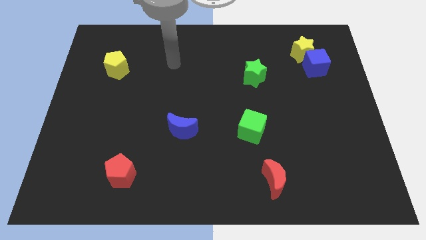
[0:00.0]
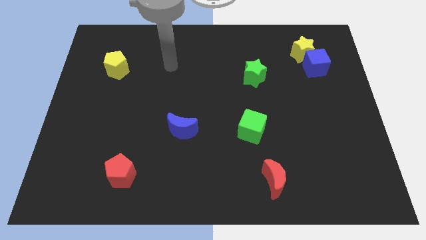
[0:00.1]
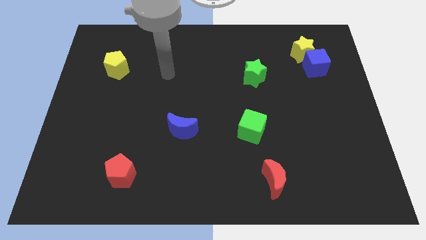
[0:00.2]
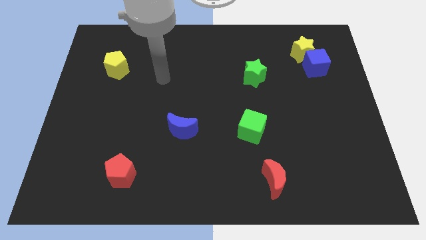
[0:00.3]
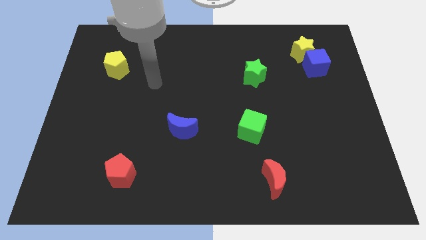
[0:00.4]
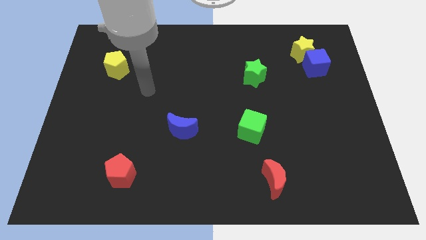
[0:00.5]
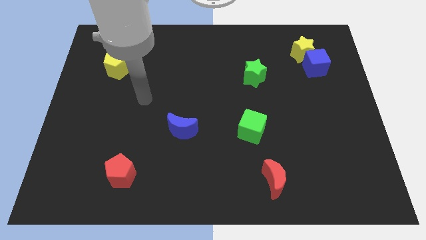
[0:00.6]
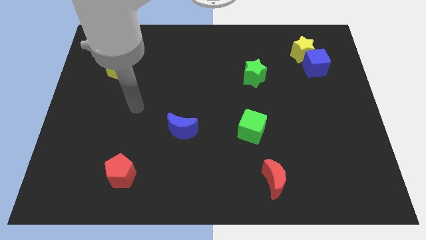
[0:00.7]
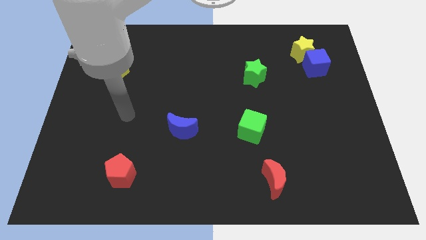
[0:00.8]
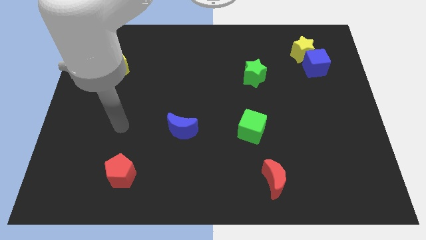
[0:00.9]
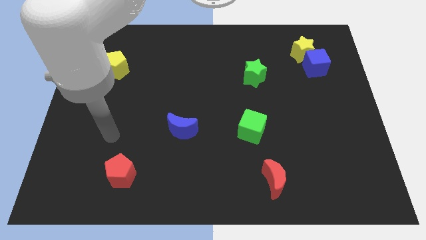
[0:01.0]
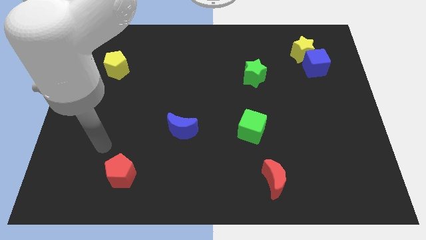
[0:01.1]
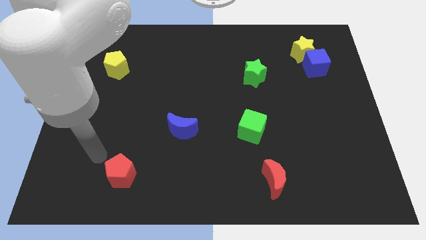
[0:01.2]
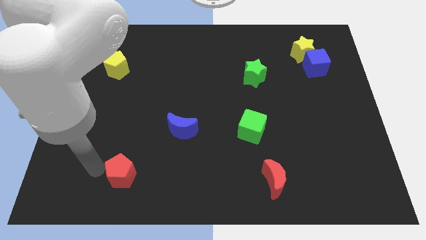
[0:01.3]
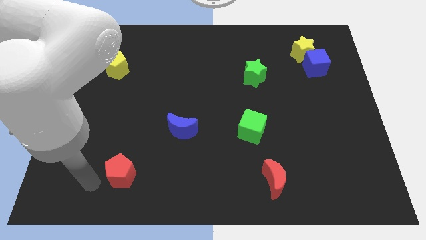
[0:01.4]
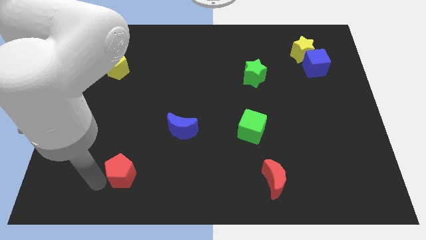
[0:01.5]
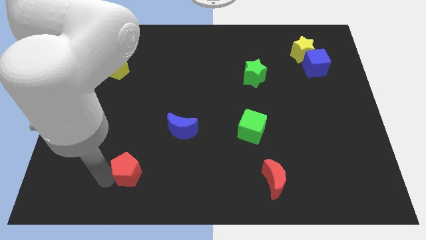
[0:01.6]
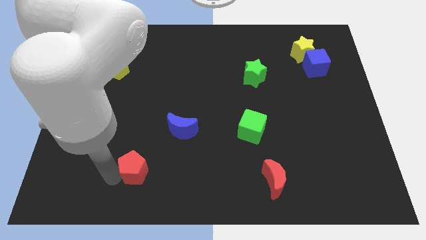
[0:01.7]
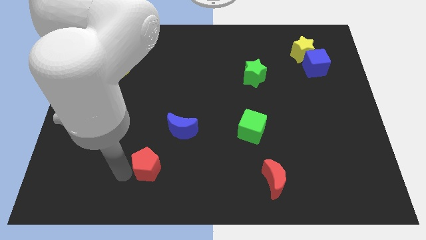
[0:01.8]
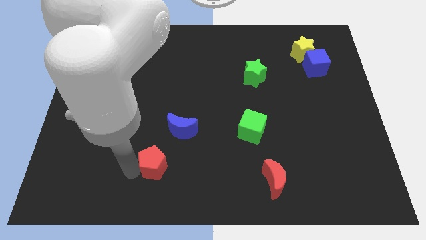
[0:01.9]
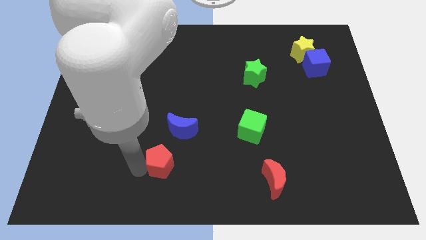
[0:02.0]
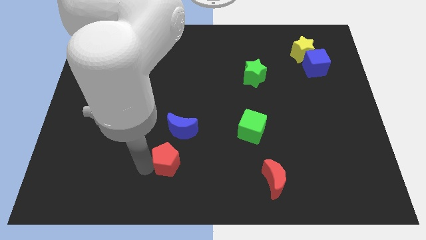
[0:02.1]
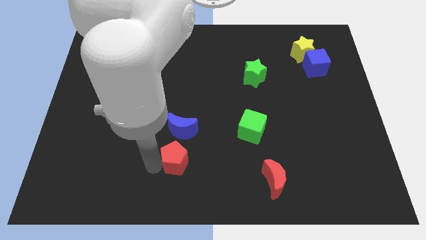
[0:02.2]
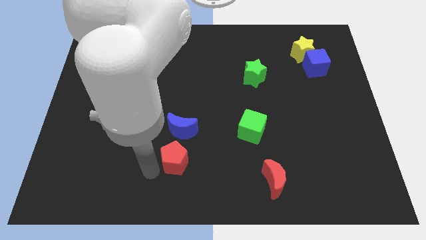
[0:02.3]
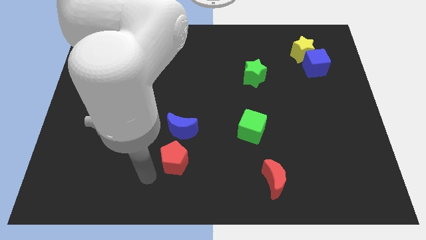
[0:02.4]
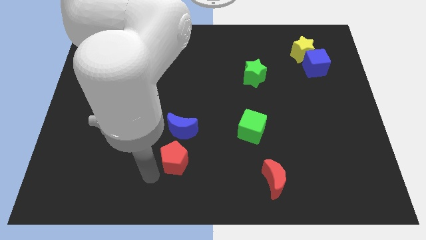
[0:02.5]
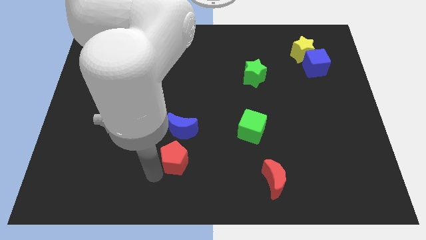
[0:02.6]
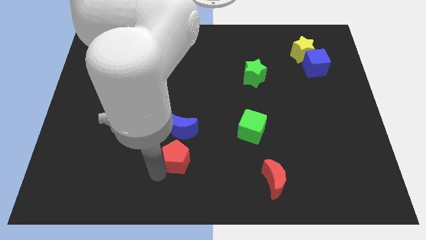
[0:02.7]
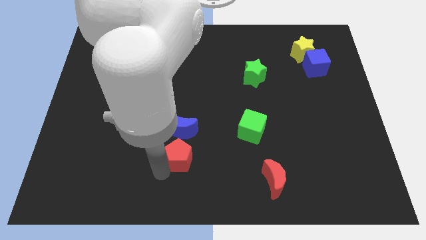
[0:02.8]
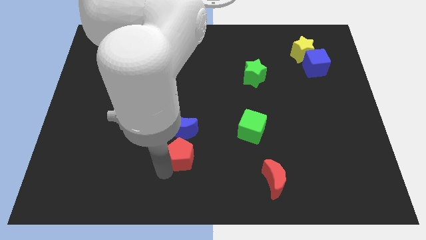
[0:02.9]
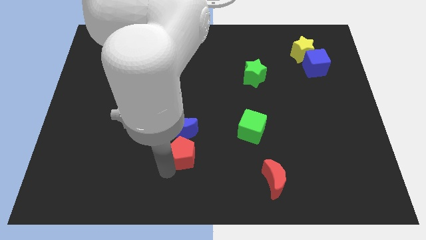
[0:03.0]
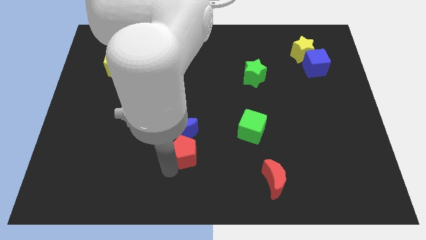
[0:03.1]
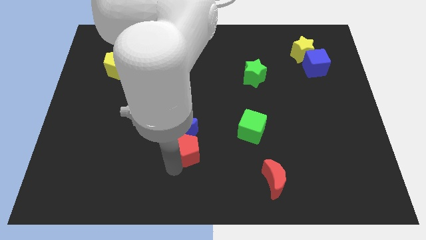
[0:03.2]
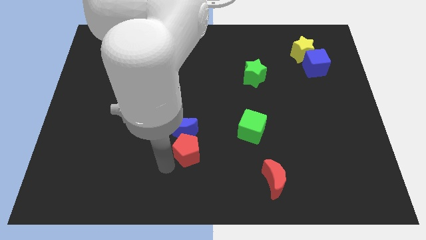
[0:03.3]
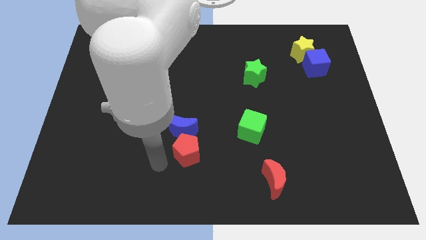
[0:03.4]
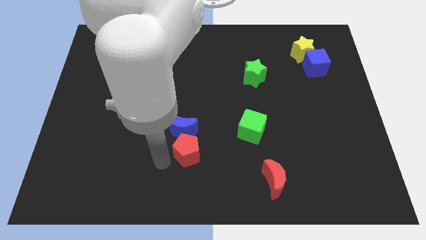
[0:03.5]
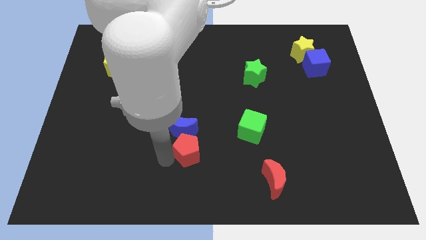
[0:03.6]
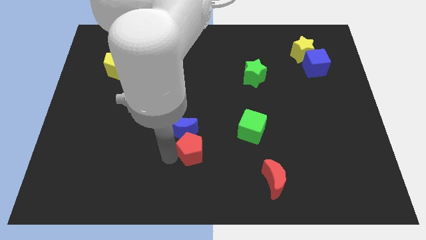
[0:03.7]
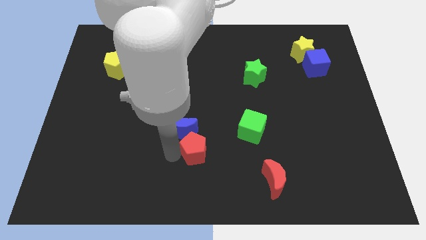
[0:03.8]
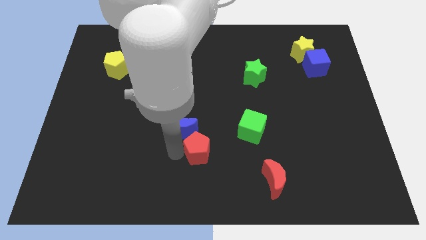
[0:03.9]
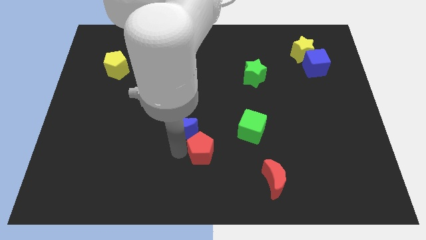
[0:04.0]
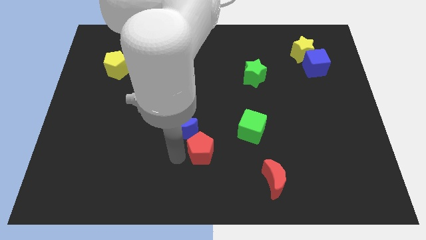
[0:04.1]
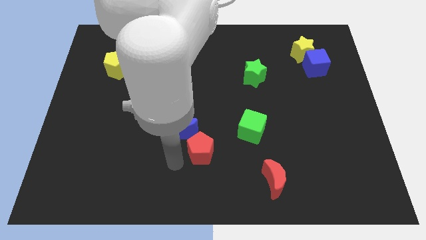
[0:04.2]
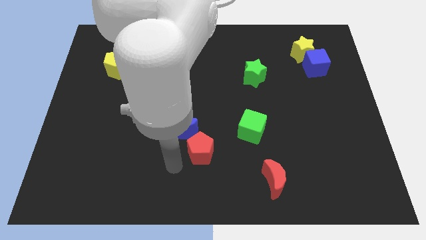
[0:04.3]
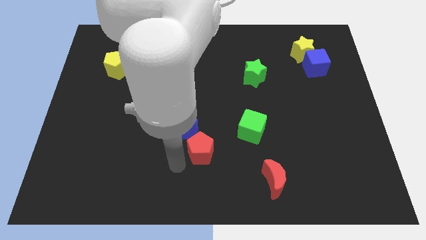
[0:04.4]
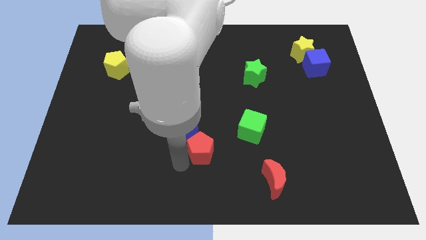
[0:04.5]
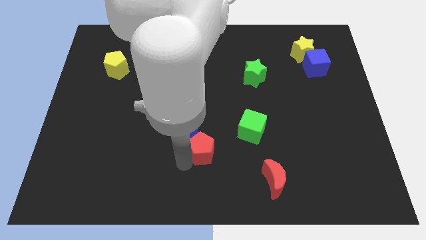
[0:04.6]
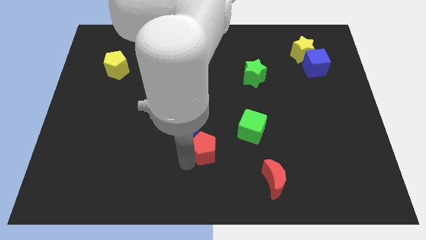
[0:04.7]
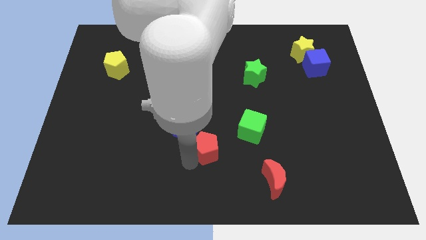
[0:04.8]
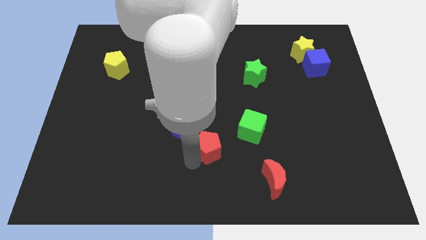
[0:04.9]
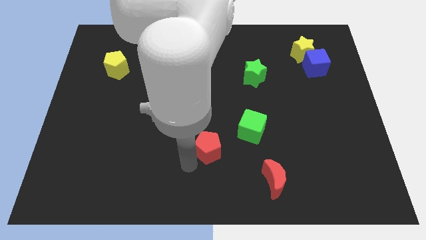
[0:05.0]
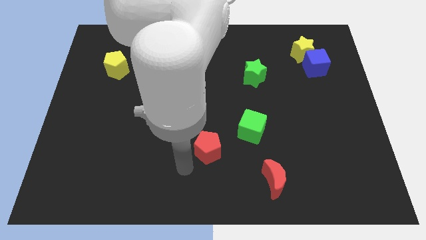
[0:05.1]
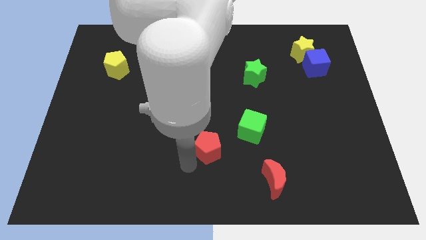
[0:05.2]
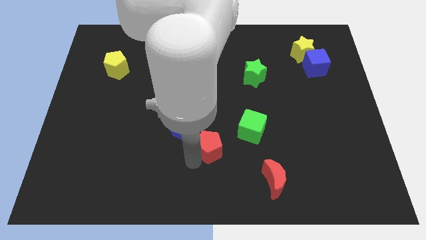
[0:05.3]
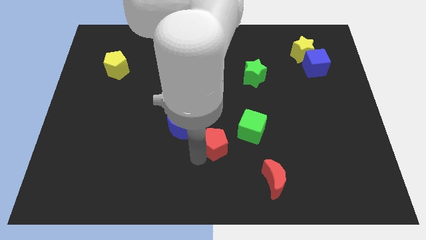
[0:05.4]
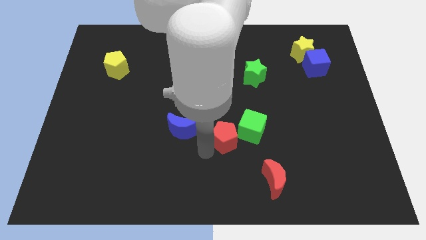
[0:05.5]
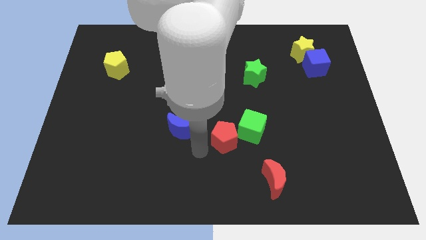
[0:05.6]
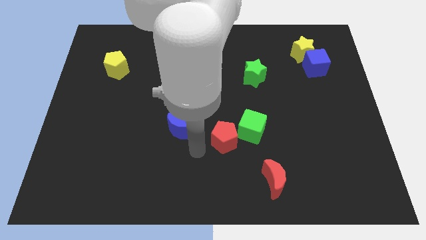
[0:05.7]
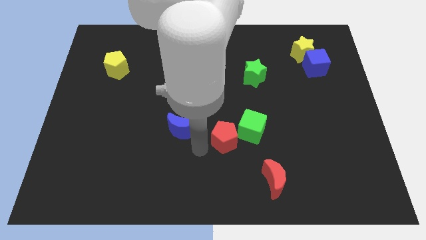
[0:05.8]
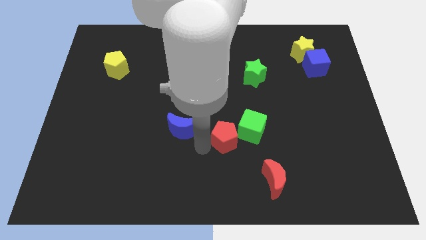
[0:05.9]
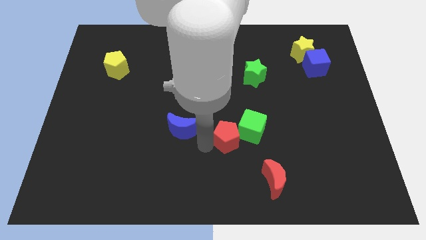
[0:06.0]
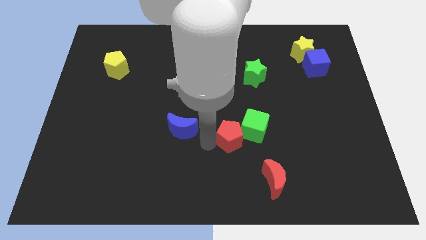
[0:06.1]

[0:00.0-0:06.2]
push the red pentagon towards the green cube
